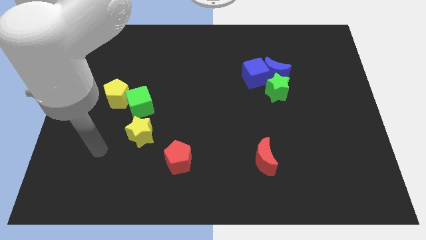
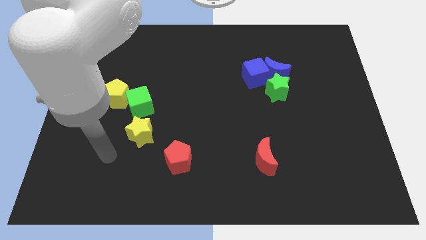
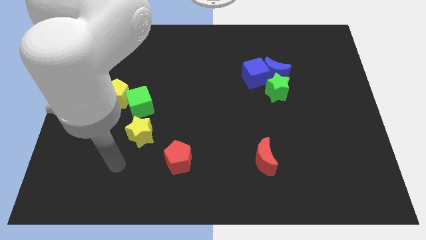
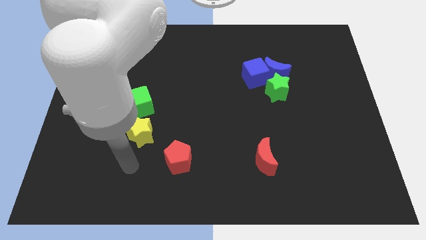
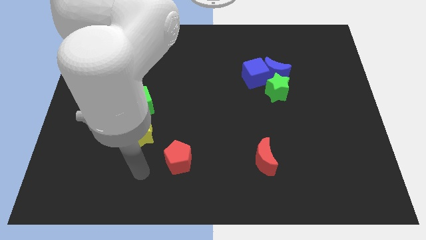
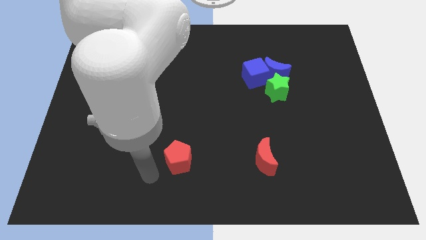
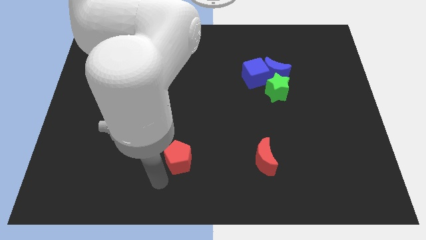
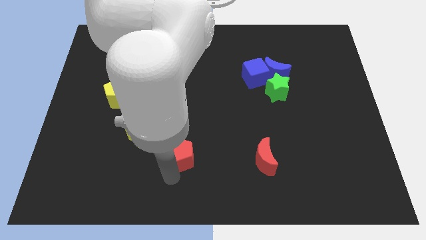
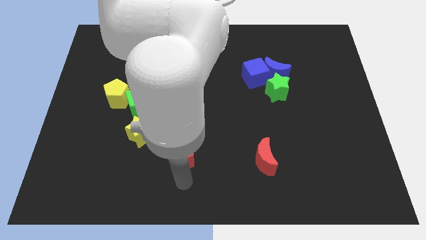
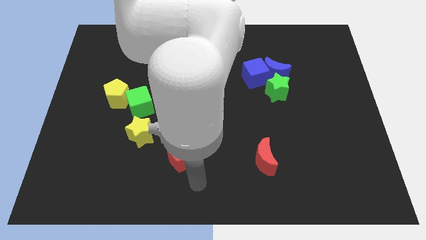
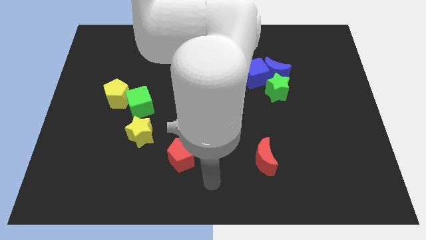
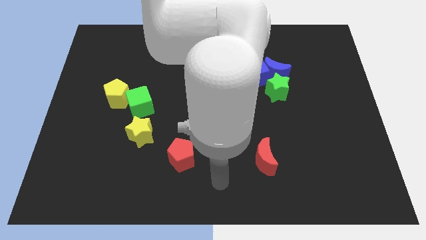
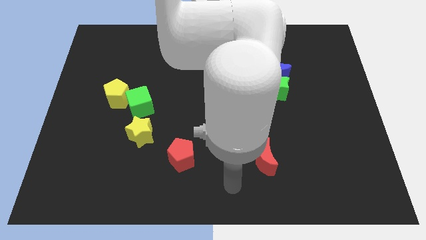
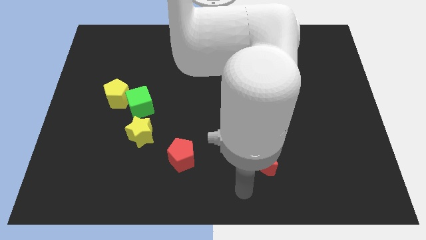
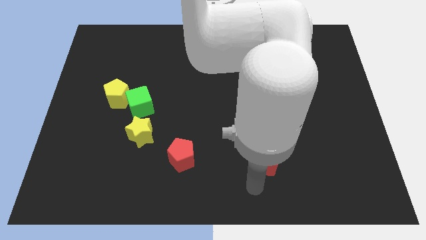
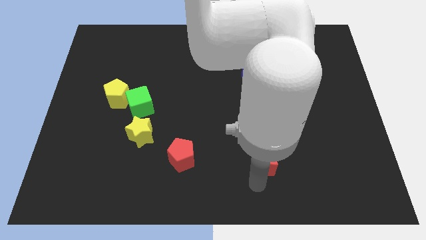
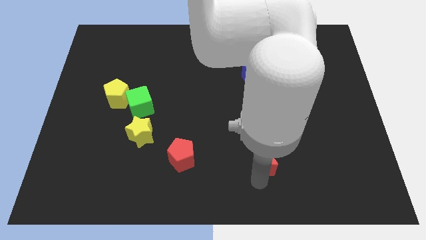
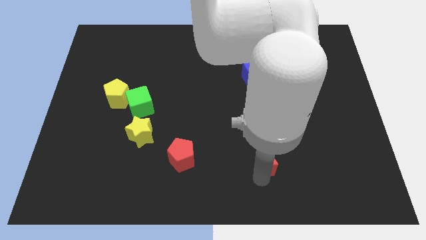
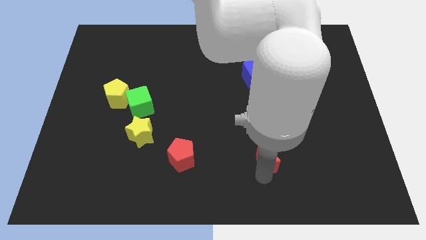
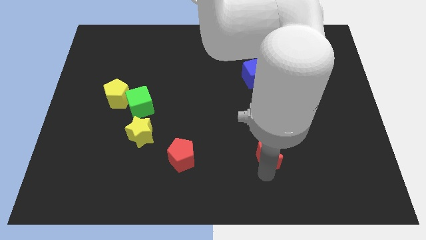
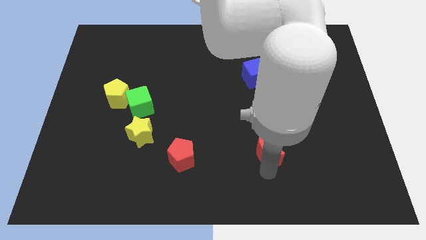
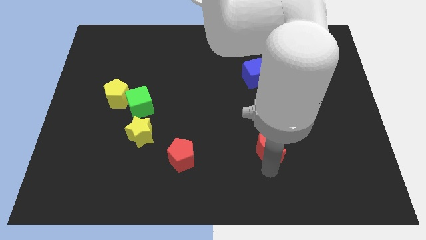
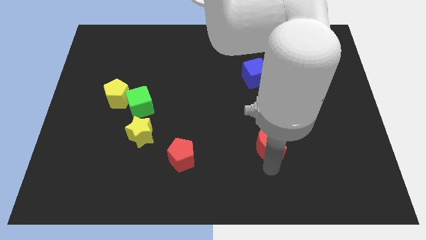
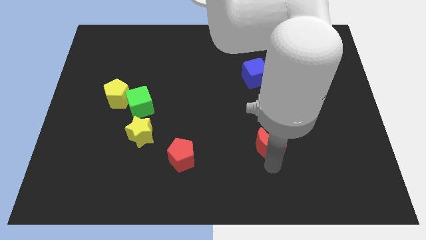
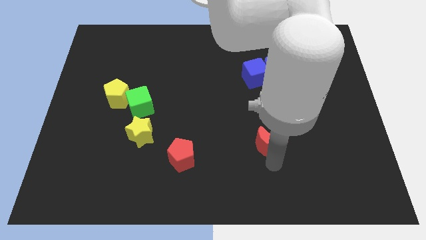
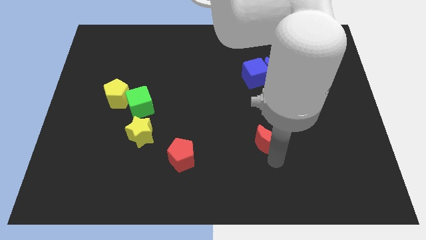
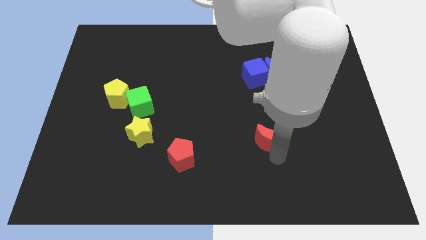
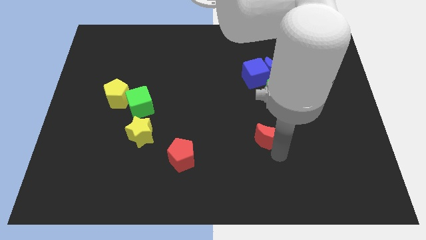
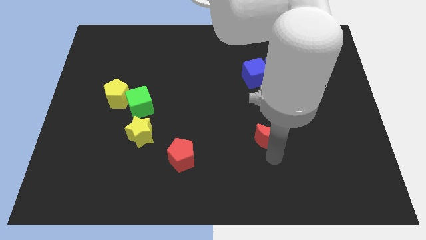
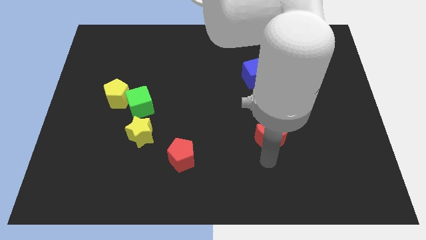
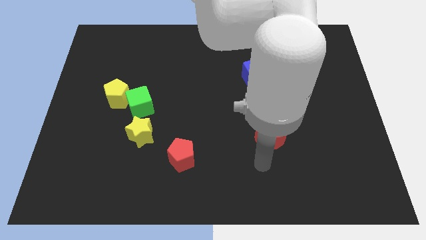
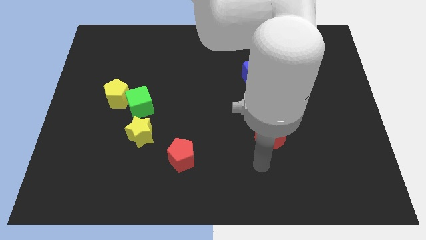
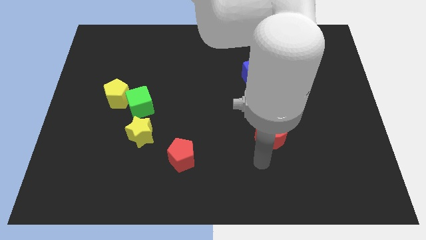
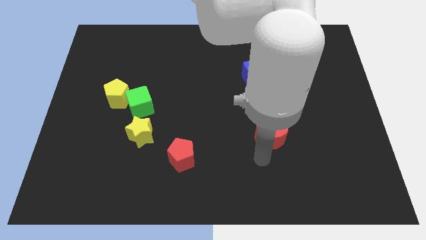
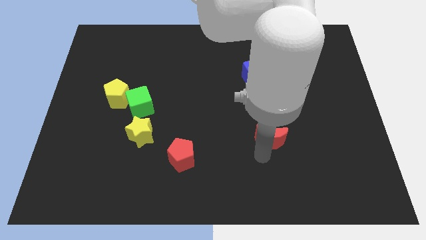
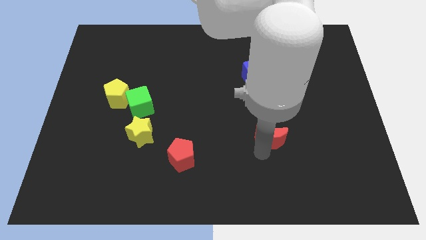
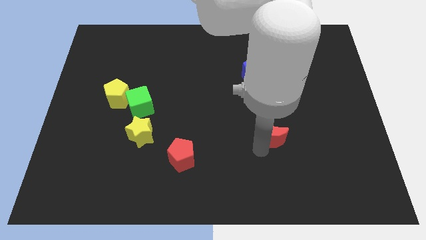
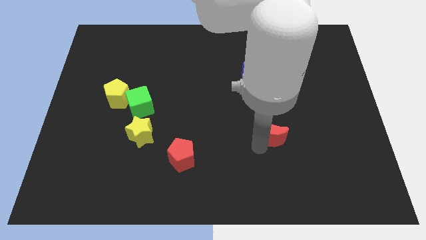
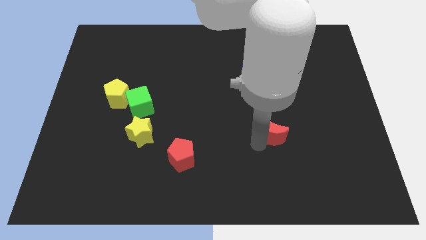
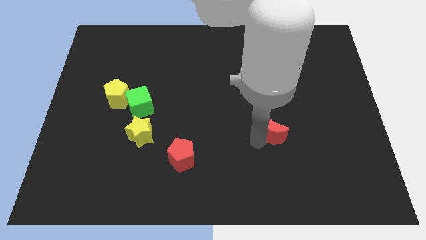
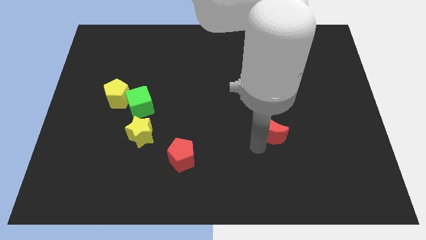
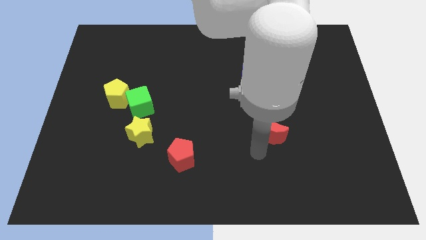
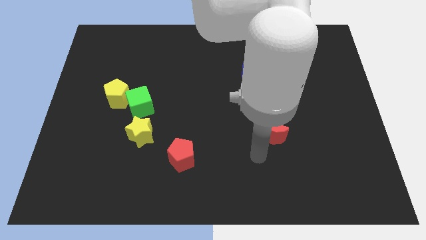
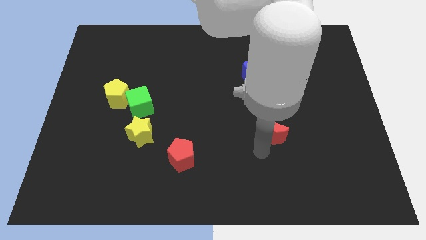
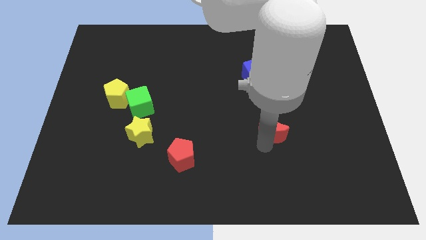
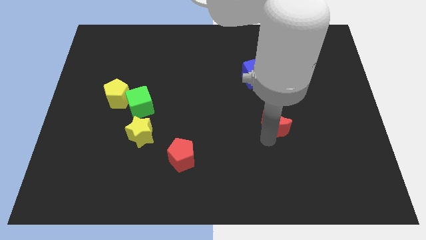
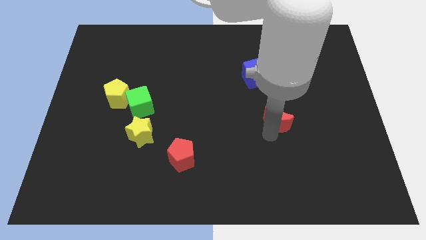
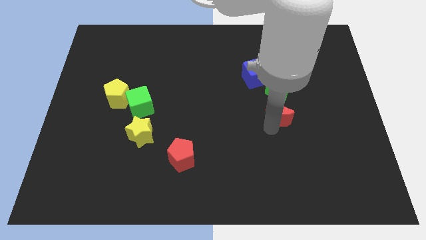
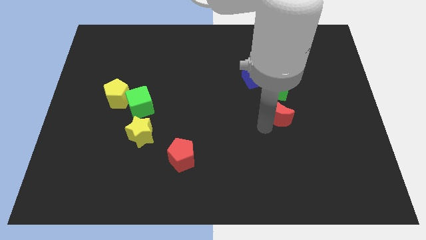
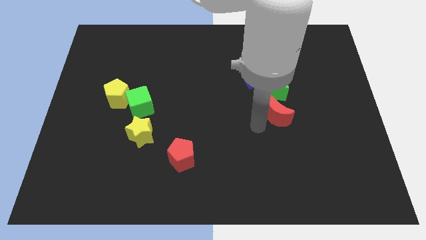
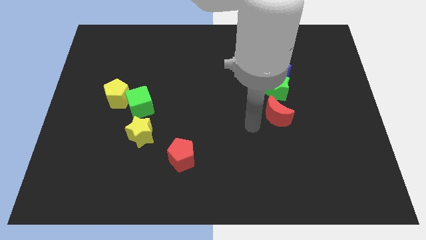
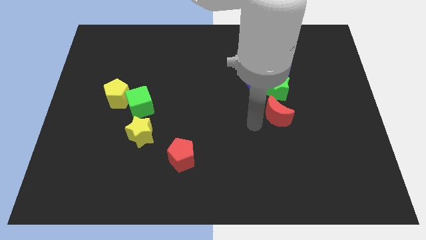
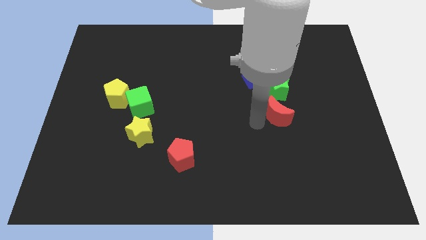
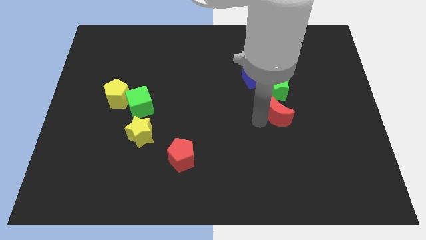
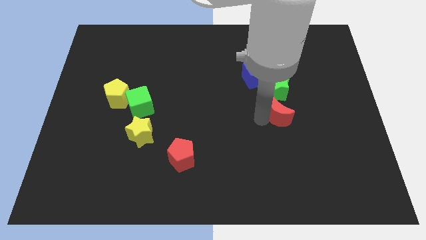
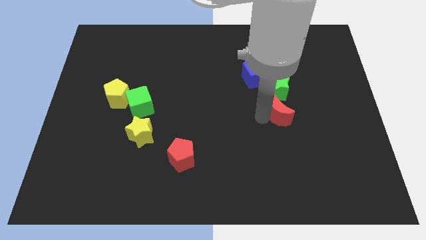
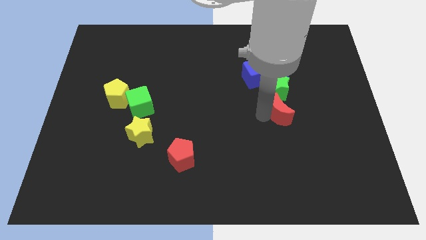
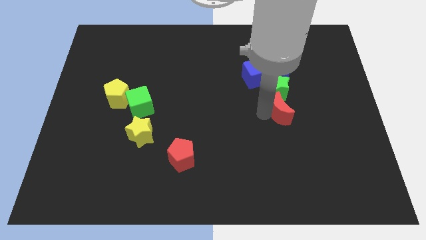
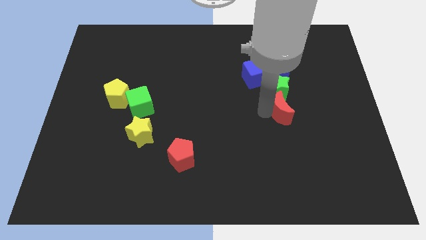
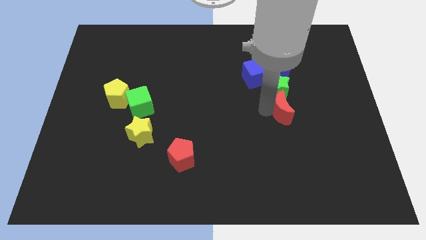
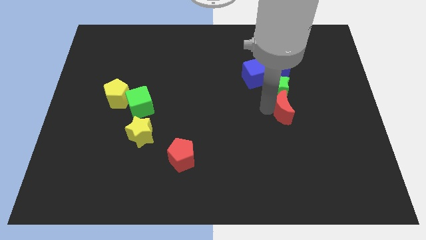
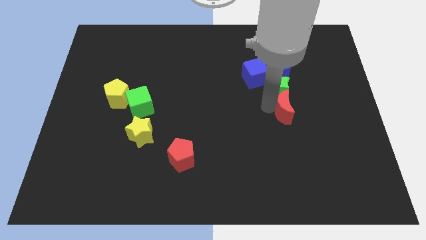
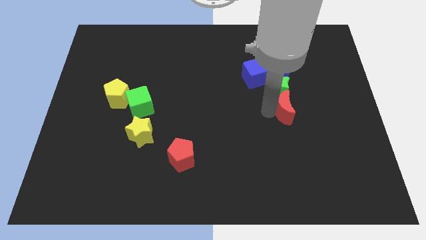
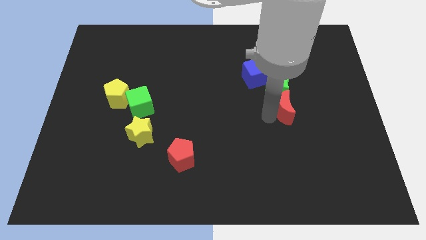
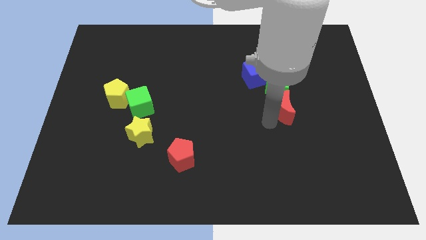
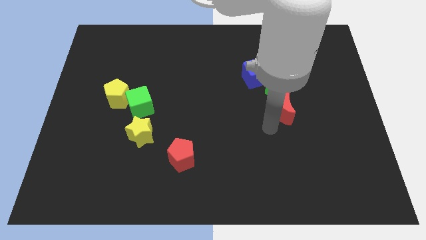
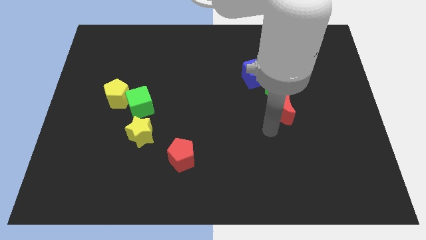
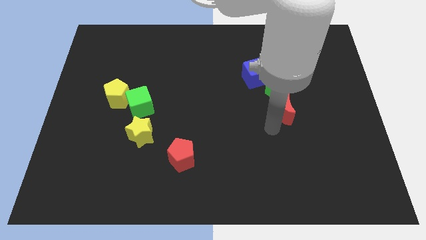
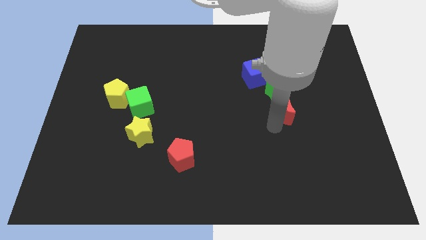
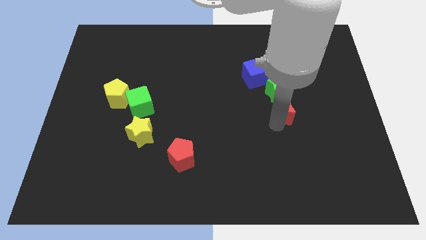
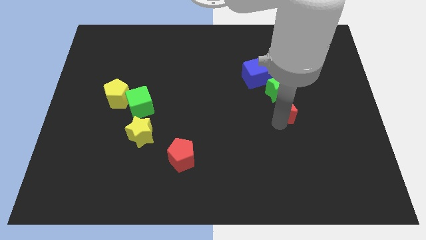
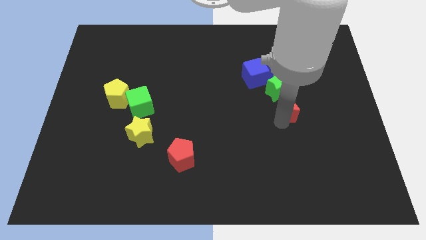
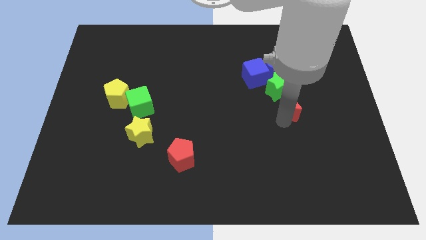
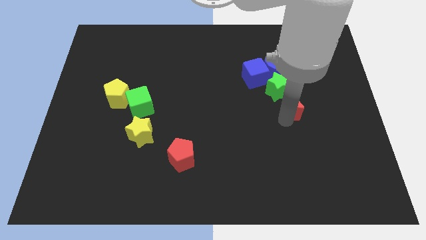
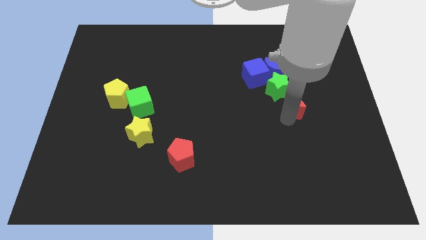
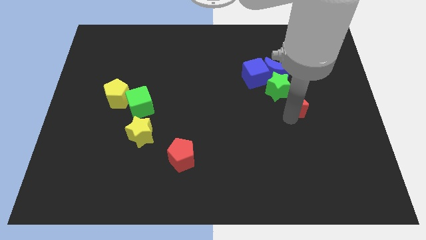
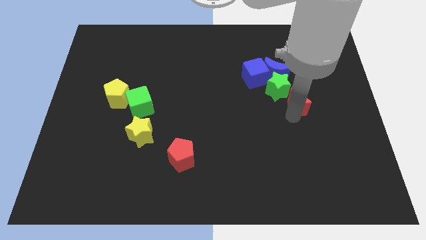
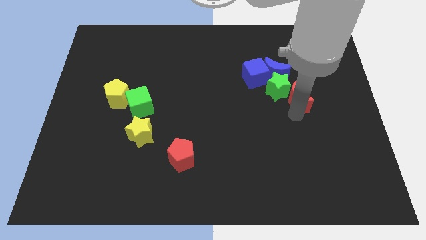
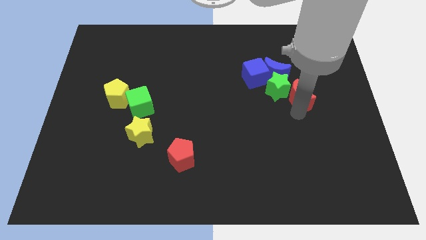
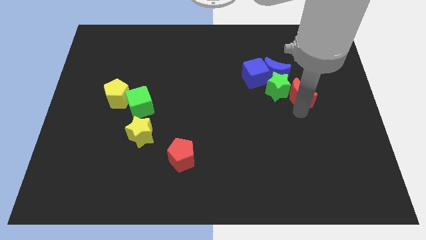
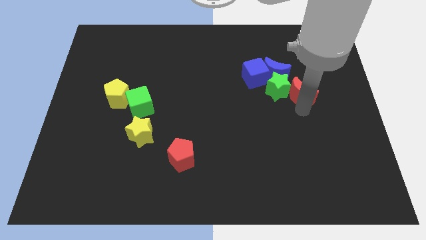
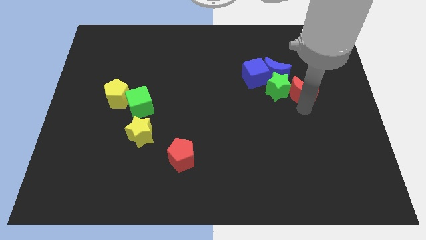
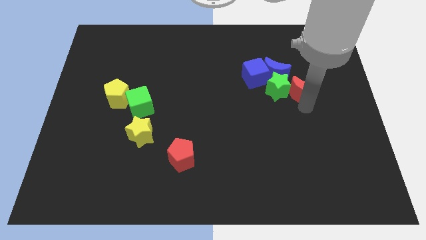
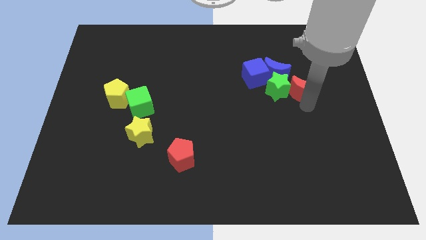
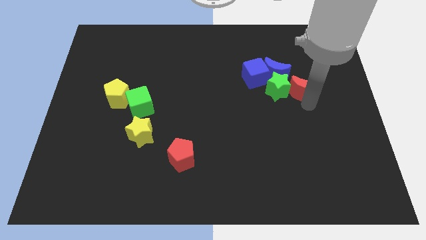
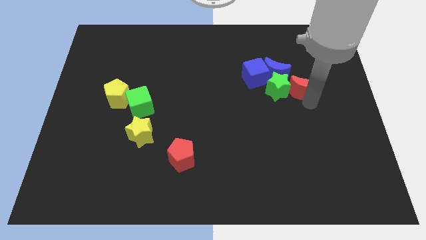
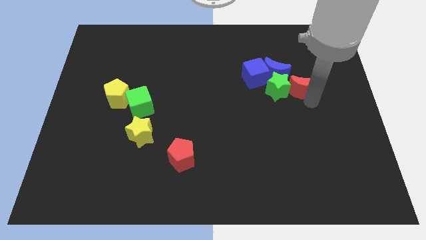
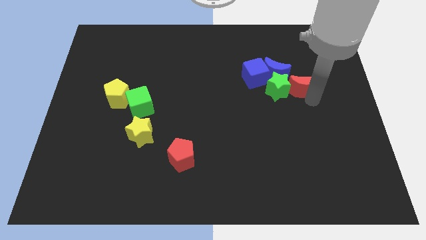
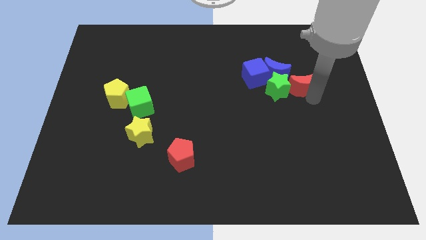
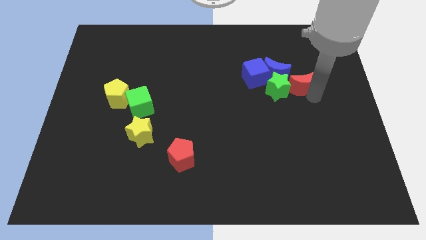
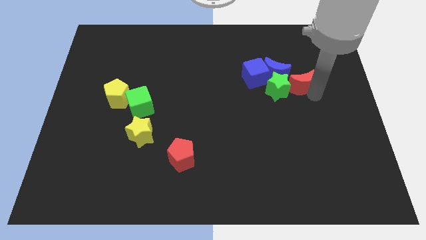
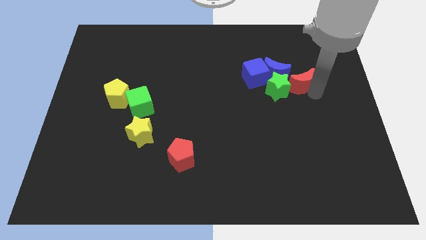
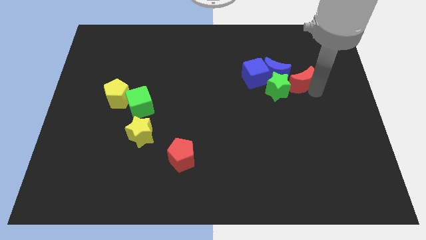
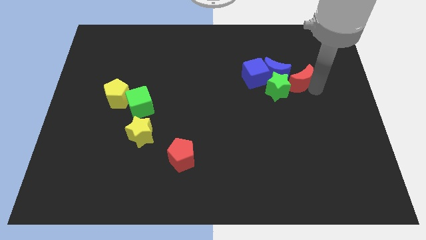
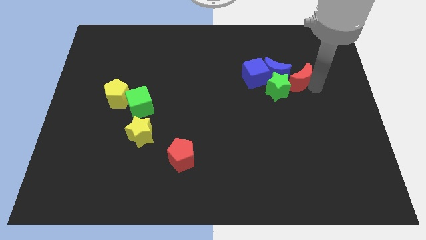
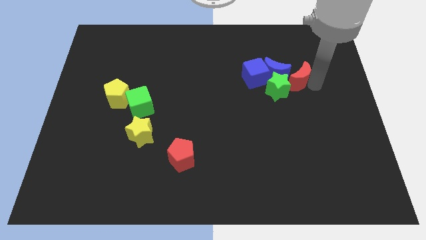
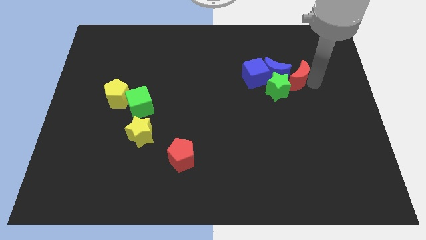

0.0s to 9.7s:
slide the red moon to the blue moon
